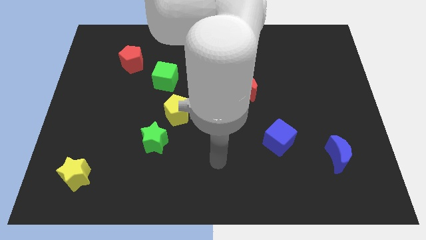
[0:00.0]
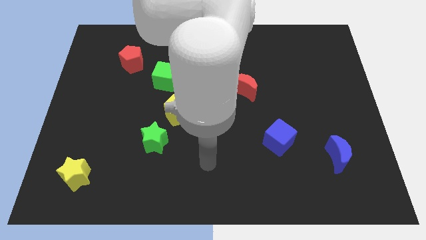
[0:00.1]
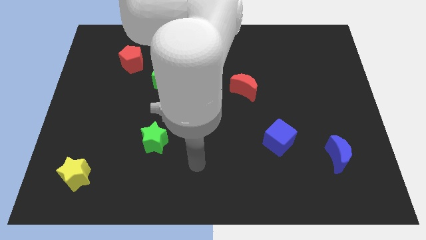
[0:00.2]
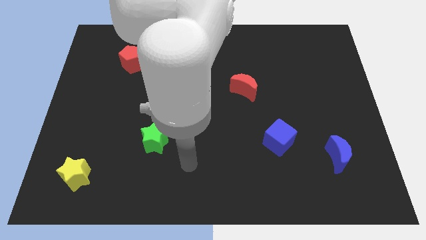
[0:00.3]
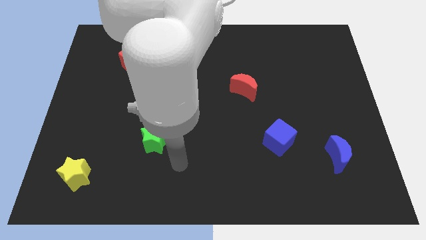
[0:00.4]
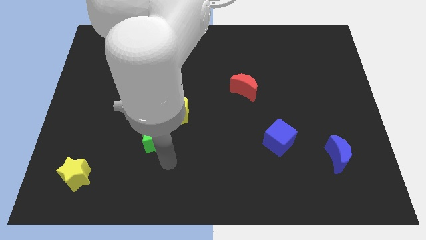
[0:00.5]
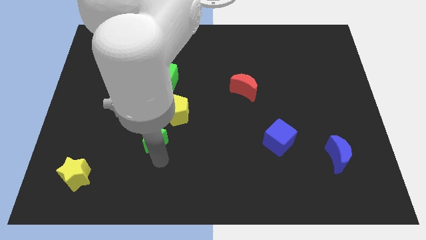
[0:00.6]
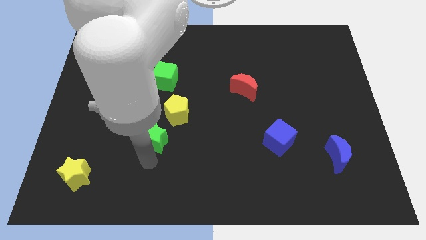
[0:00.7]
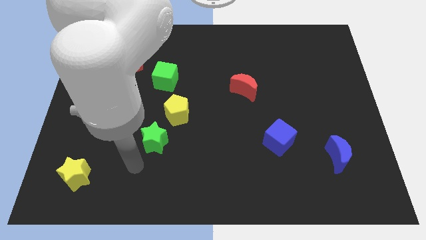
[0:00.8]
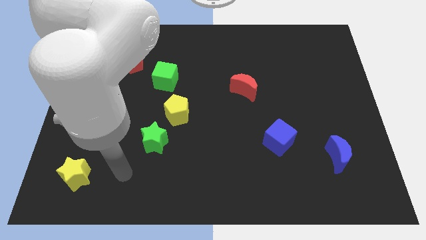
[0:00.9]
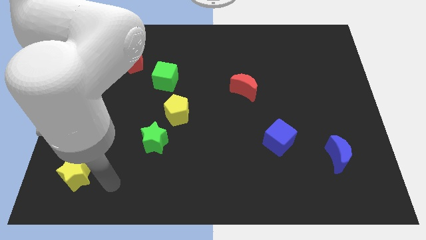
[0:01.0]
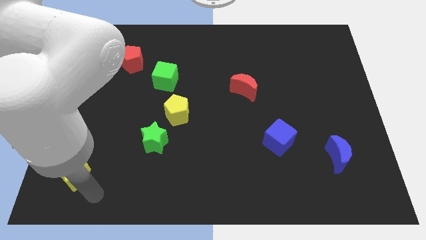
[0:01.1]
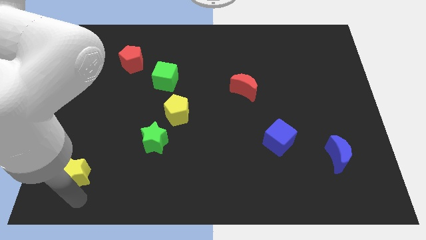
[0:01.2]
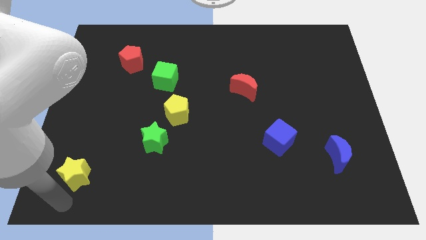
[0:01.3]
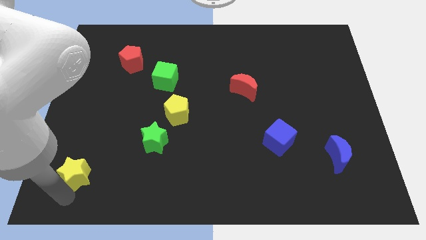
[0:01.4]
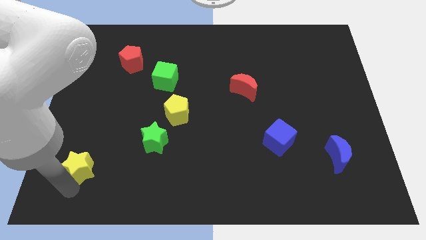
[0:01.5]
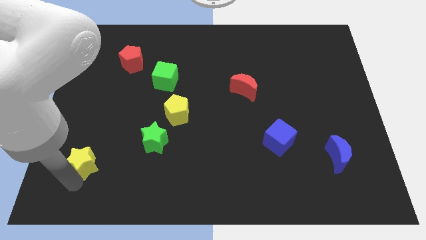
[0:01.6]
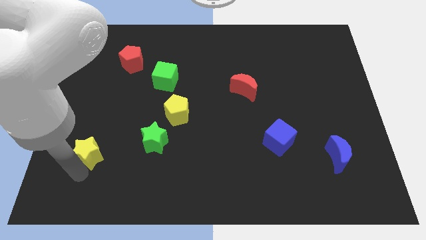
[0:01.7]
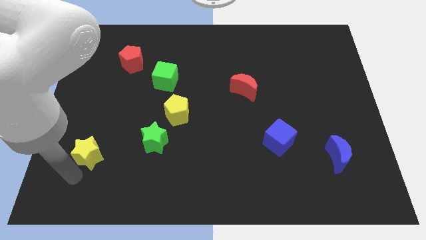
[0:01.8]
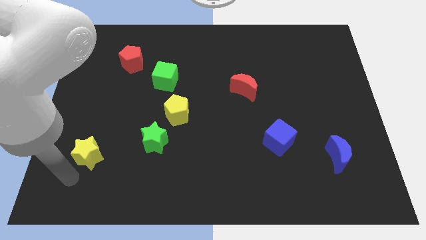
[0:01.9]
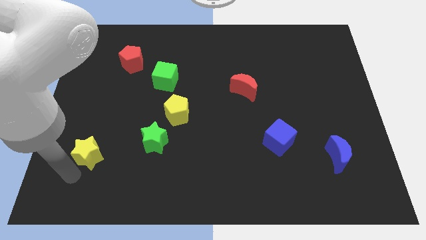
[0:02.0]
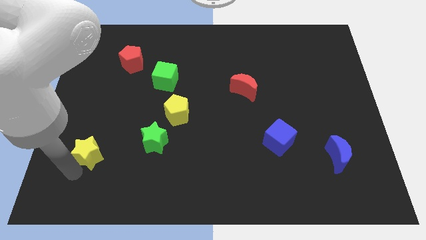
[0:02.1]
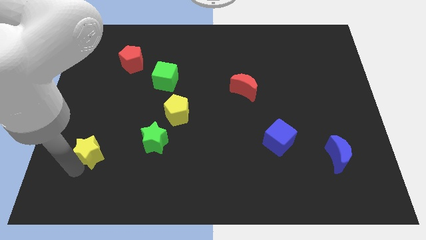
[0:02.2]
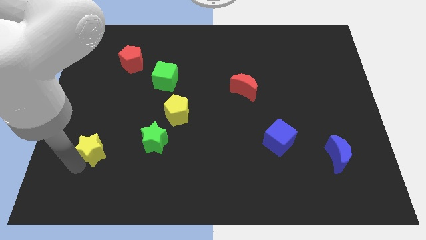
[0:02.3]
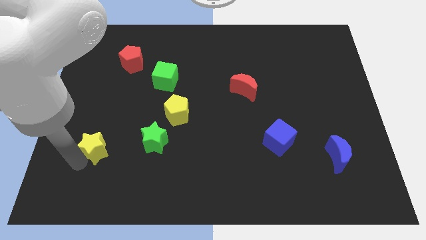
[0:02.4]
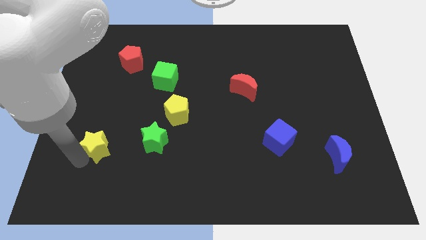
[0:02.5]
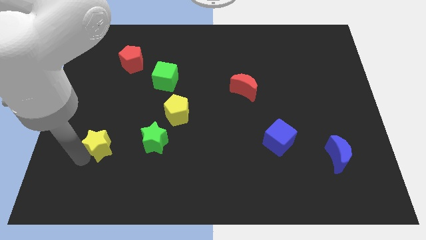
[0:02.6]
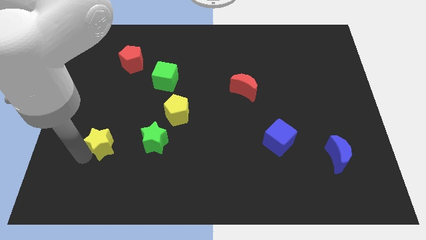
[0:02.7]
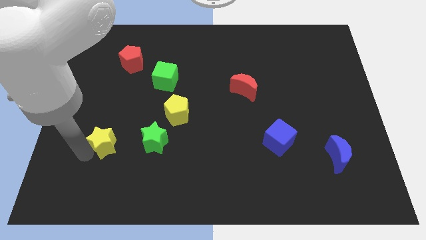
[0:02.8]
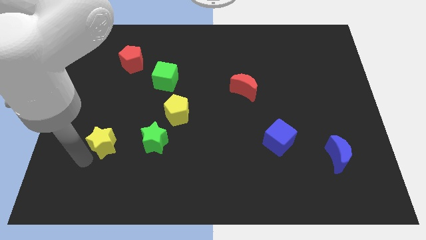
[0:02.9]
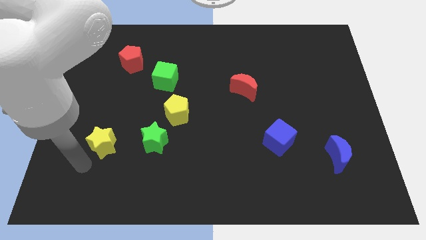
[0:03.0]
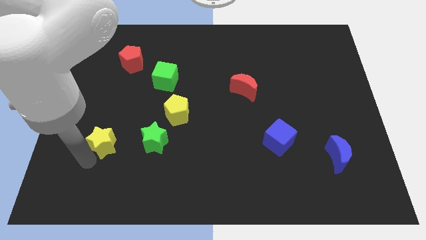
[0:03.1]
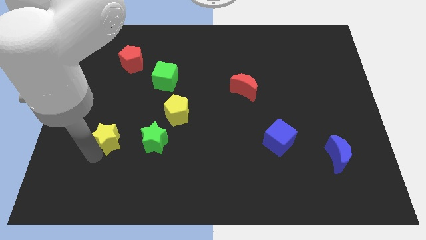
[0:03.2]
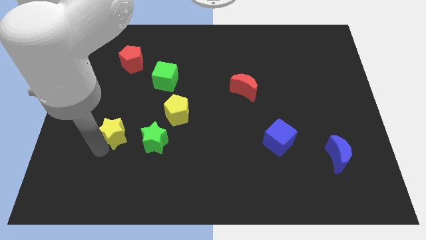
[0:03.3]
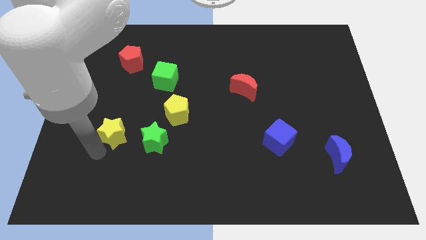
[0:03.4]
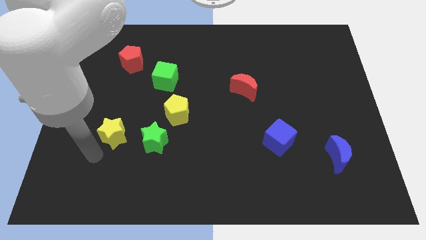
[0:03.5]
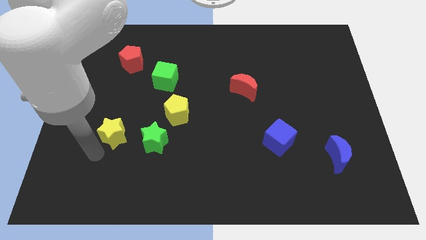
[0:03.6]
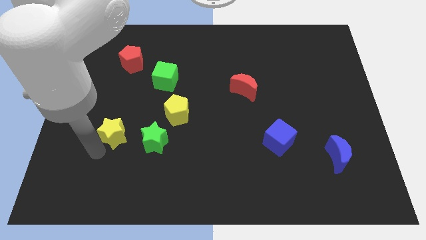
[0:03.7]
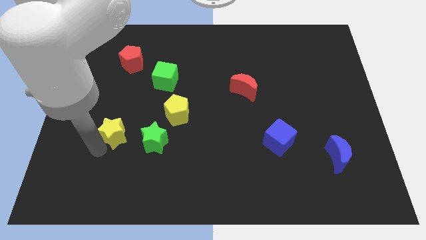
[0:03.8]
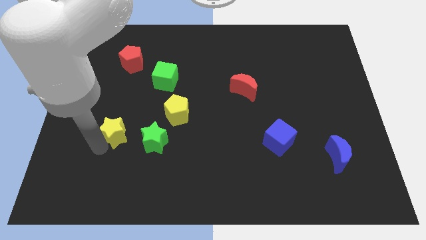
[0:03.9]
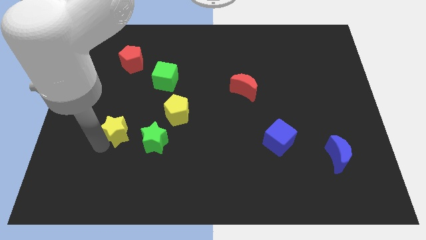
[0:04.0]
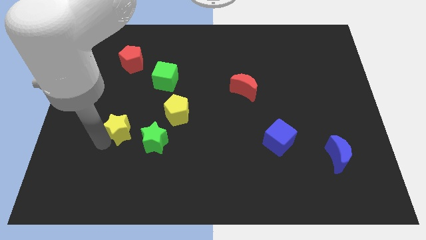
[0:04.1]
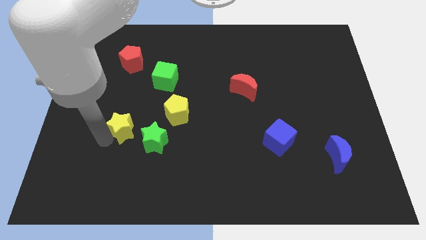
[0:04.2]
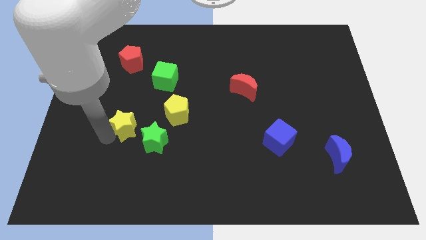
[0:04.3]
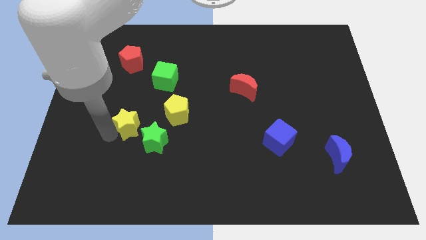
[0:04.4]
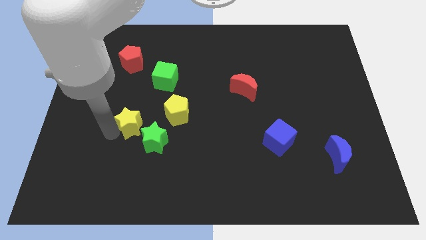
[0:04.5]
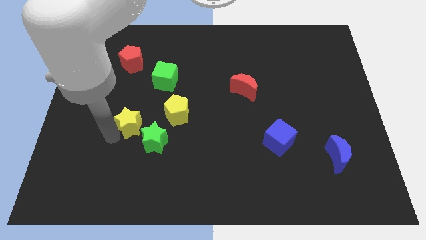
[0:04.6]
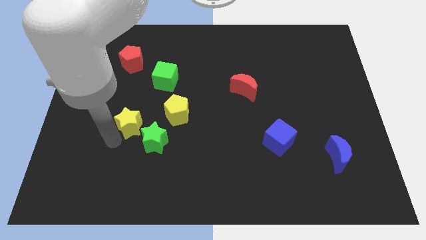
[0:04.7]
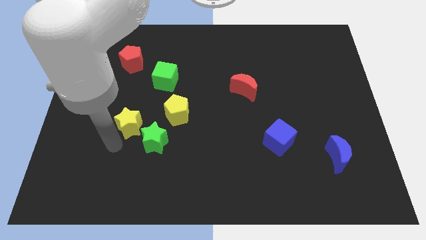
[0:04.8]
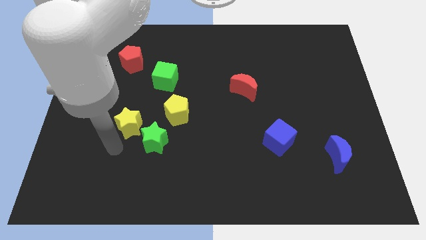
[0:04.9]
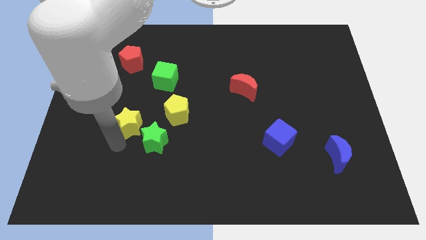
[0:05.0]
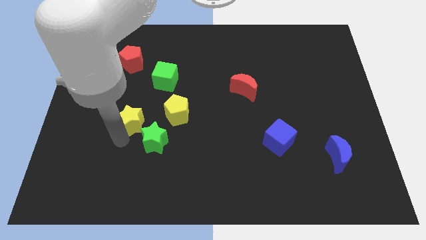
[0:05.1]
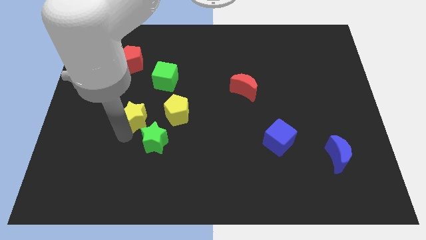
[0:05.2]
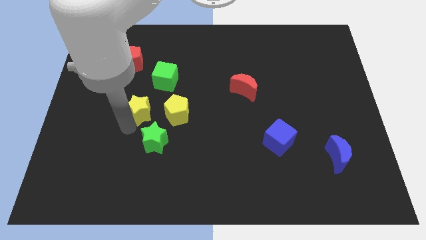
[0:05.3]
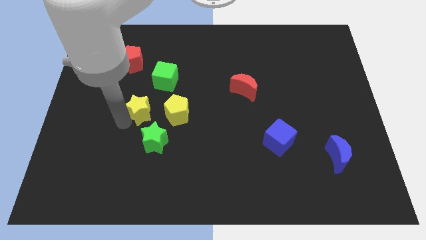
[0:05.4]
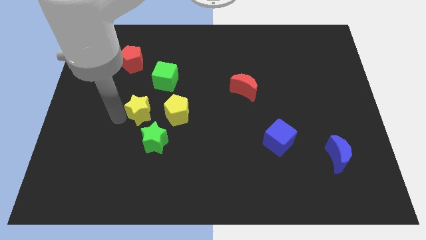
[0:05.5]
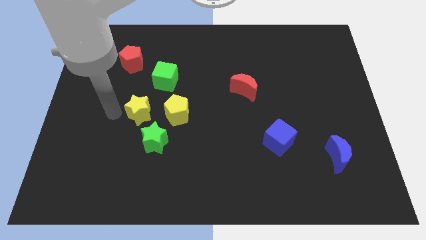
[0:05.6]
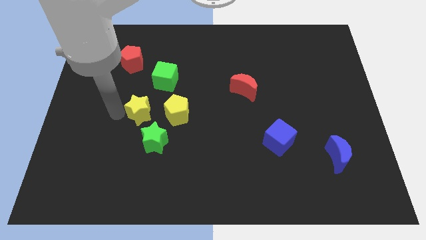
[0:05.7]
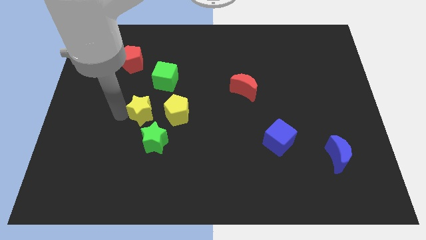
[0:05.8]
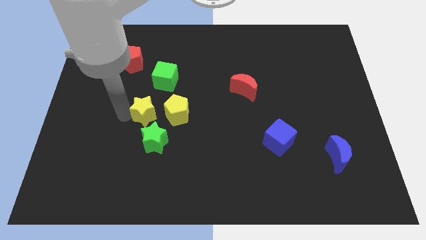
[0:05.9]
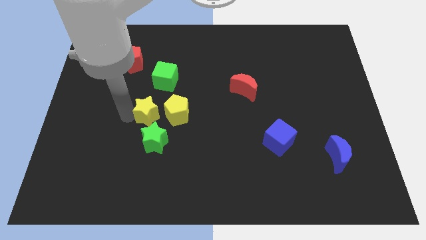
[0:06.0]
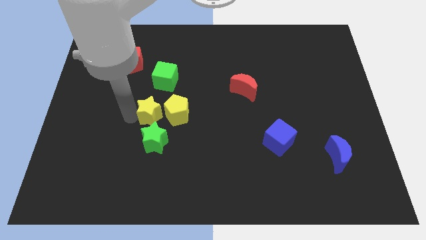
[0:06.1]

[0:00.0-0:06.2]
move the yellow star towards the yellow pentagon

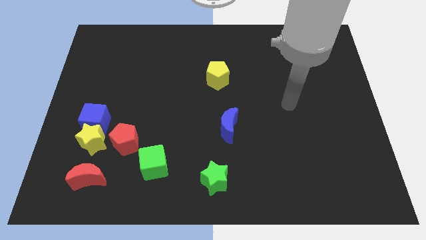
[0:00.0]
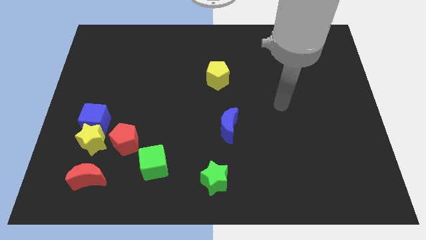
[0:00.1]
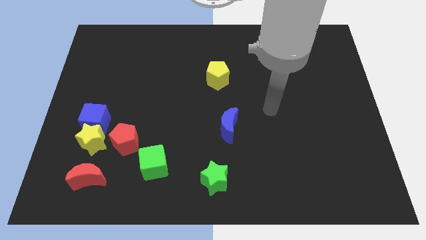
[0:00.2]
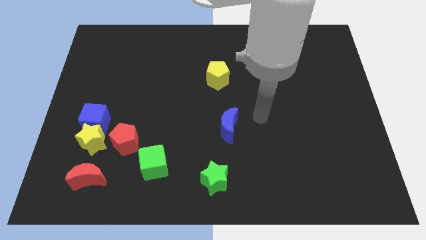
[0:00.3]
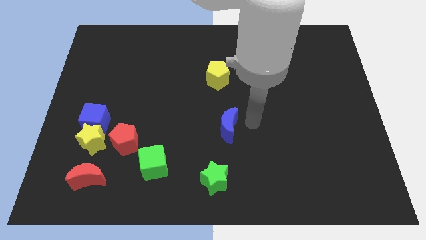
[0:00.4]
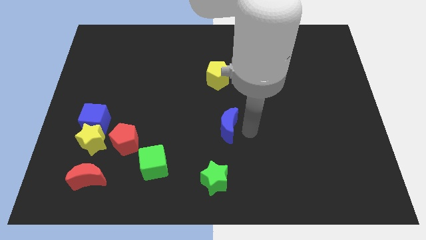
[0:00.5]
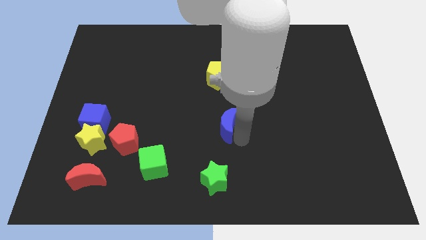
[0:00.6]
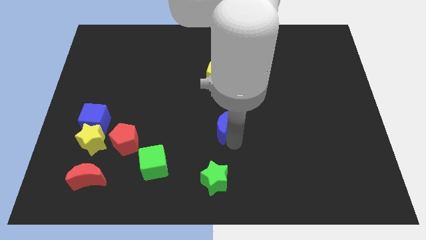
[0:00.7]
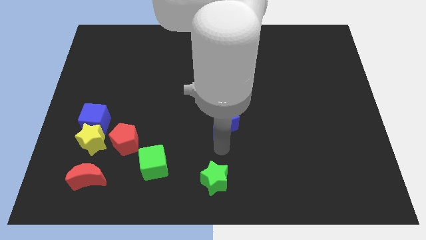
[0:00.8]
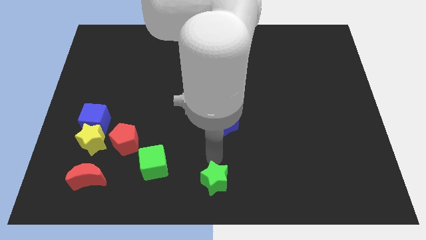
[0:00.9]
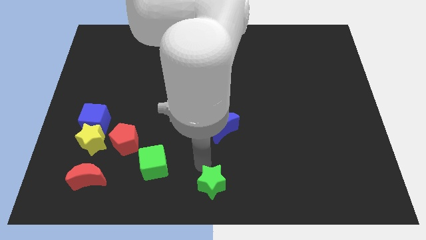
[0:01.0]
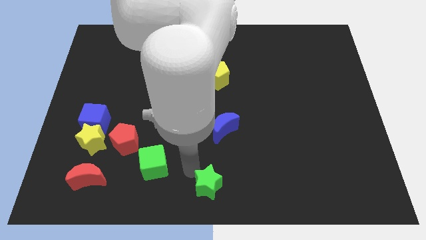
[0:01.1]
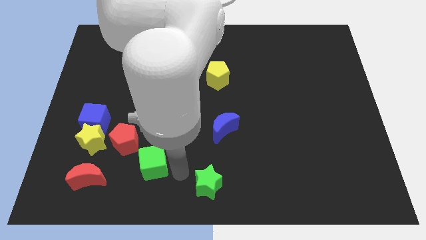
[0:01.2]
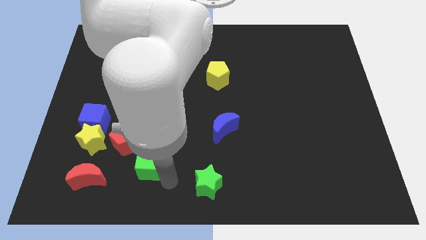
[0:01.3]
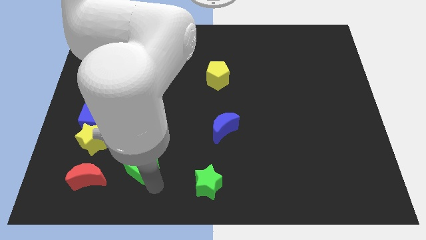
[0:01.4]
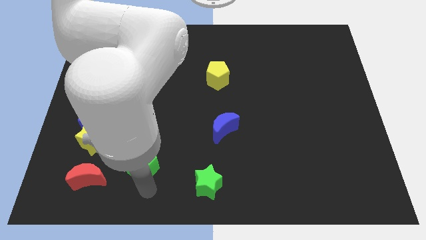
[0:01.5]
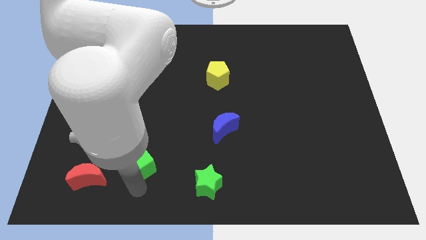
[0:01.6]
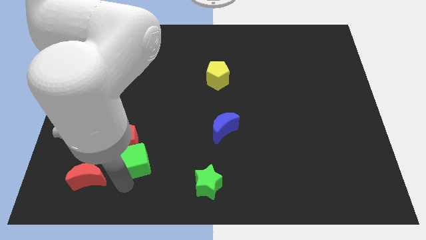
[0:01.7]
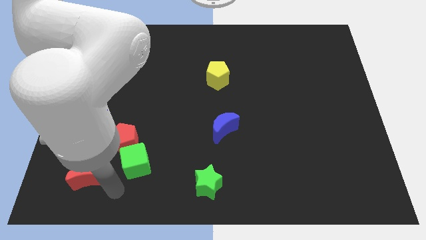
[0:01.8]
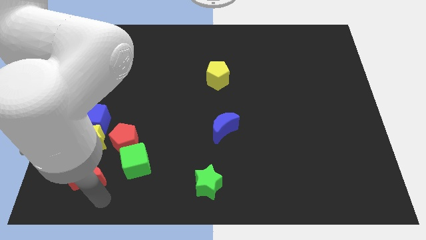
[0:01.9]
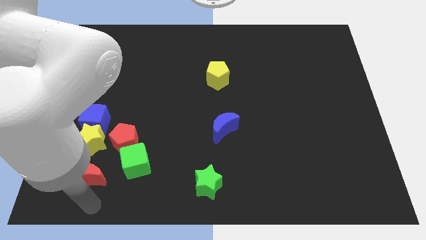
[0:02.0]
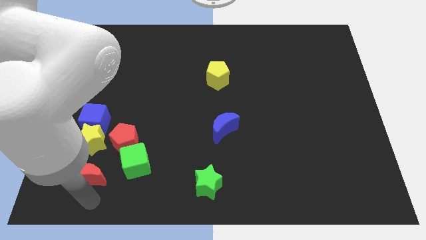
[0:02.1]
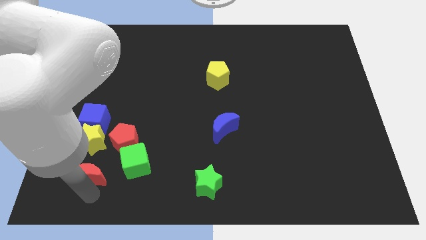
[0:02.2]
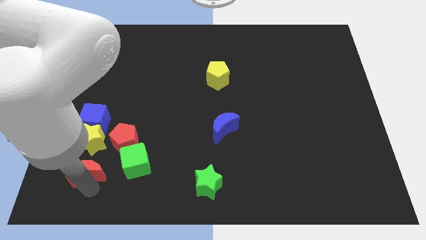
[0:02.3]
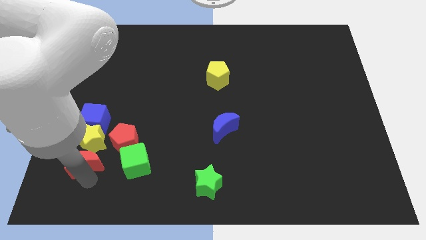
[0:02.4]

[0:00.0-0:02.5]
slide the red moon to the yellow star
